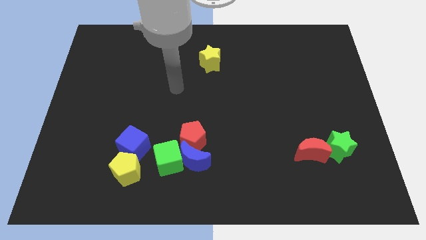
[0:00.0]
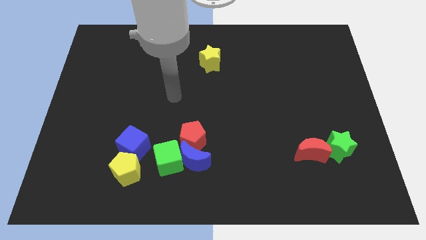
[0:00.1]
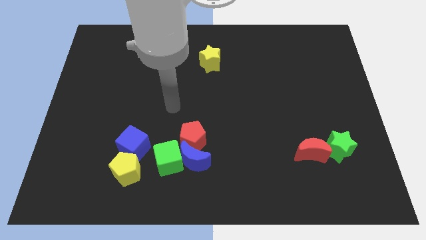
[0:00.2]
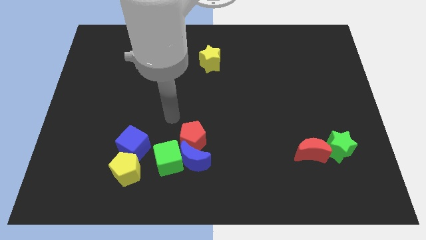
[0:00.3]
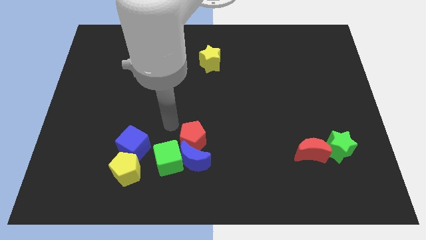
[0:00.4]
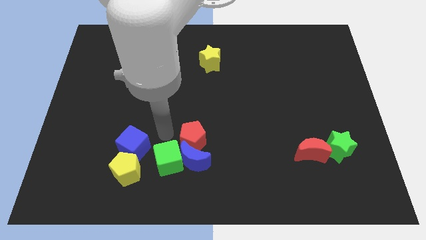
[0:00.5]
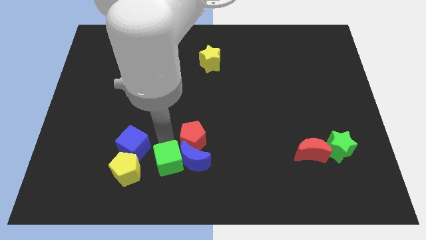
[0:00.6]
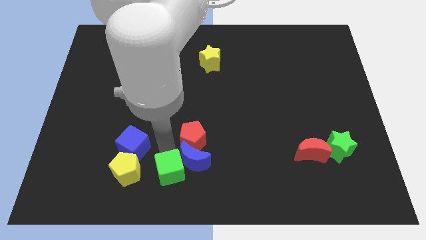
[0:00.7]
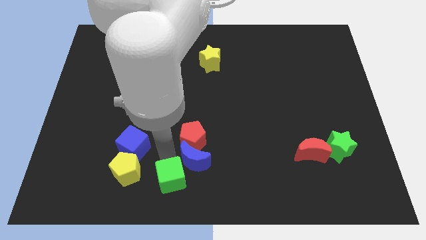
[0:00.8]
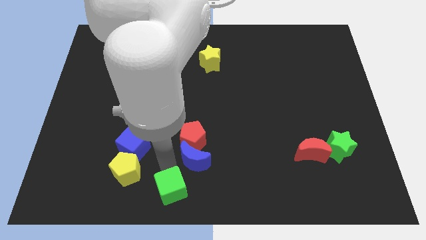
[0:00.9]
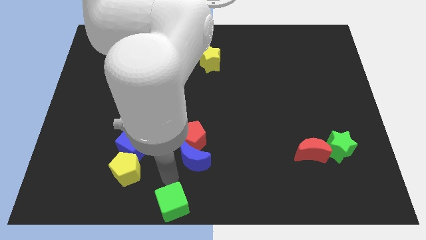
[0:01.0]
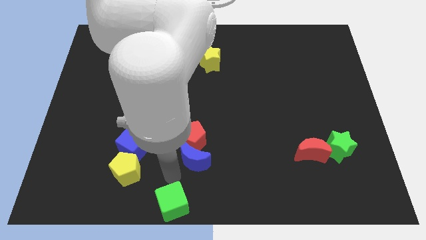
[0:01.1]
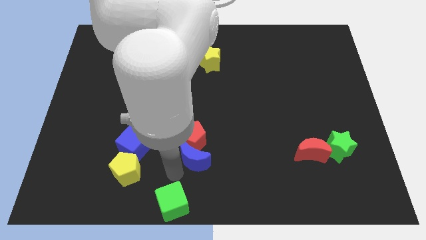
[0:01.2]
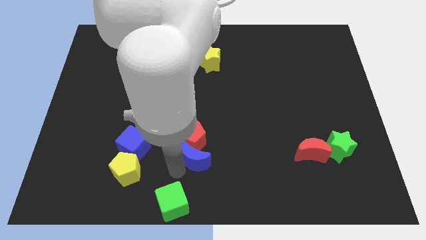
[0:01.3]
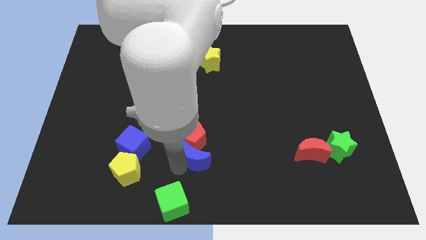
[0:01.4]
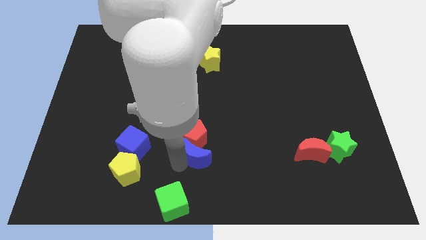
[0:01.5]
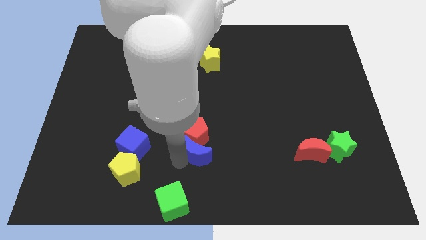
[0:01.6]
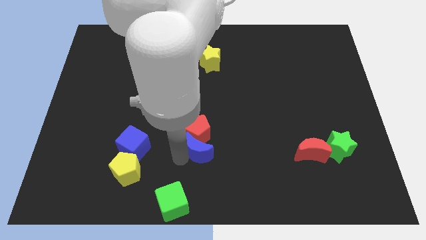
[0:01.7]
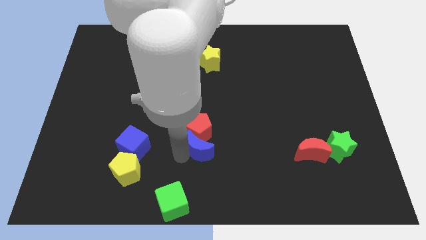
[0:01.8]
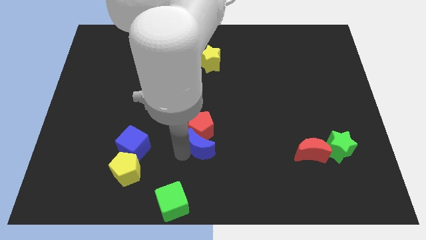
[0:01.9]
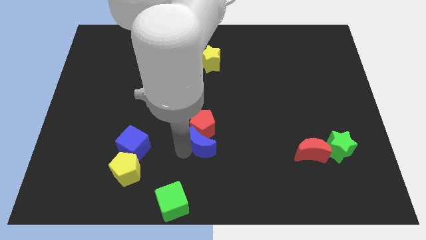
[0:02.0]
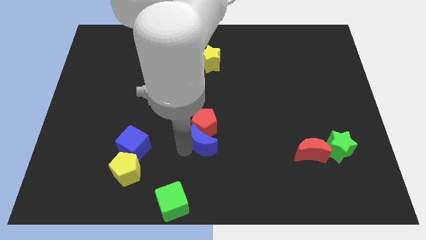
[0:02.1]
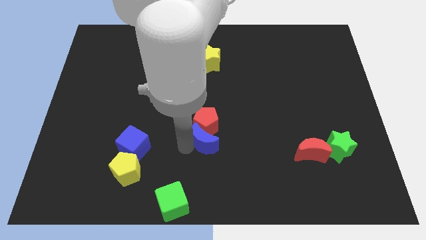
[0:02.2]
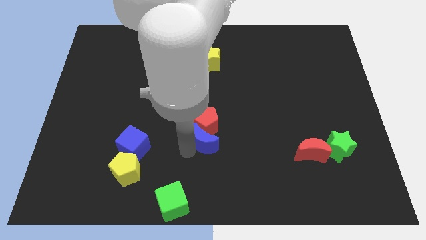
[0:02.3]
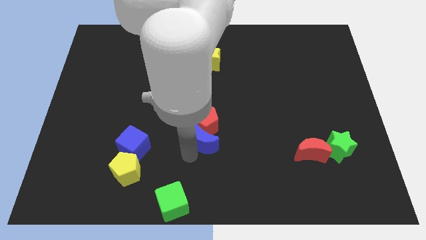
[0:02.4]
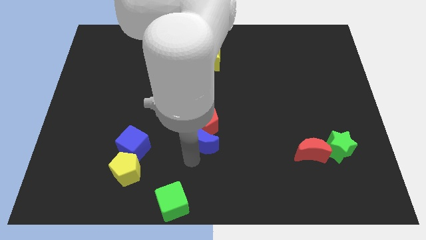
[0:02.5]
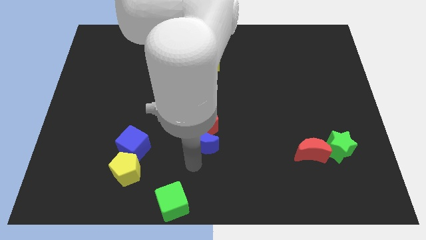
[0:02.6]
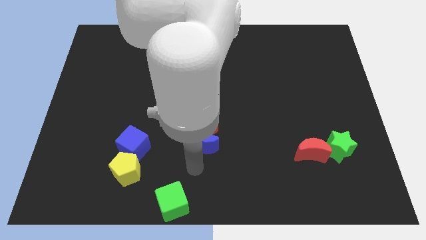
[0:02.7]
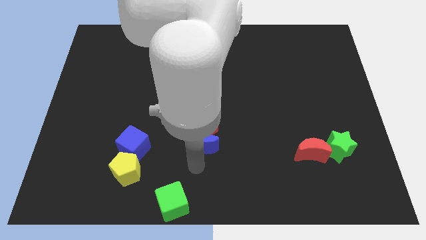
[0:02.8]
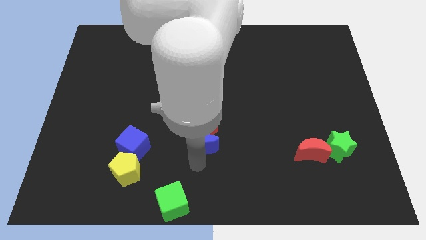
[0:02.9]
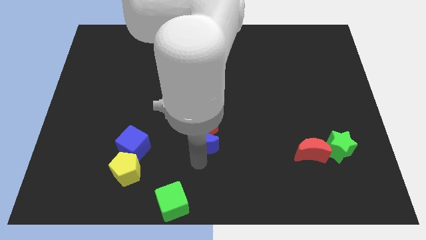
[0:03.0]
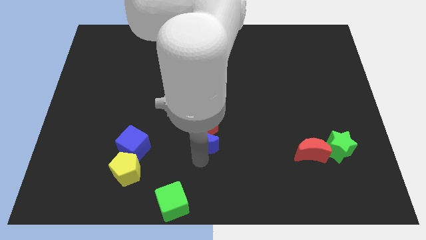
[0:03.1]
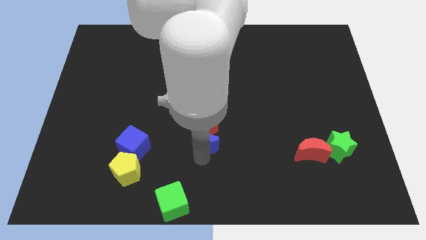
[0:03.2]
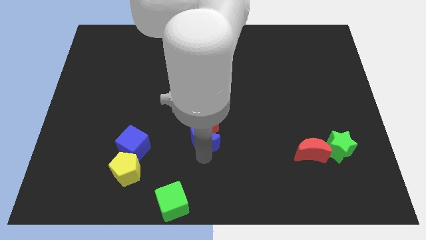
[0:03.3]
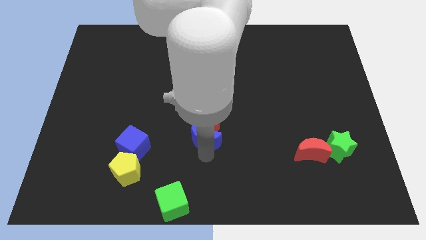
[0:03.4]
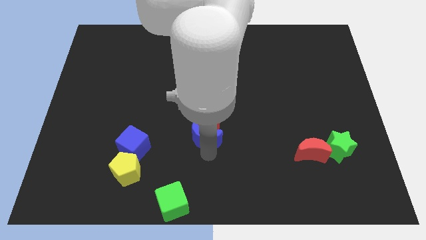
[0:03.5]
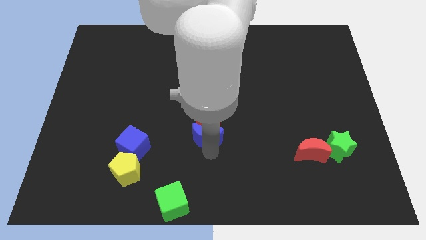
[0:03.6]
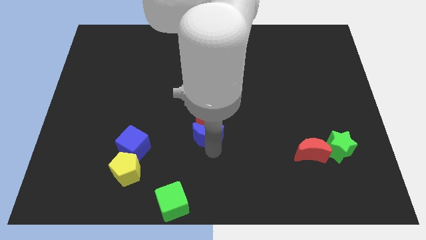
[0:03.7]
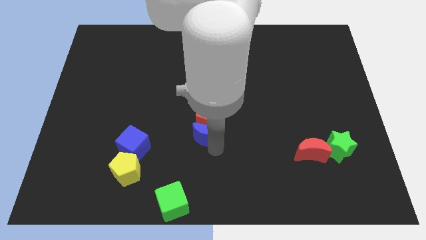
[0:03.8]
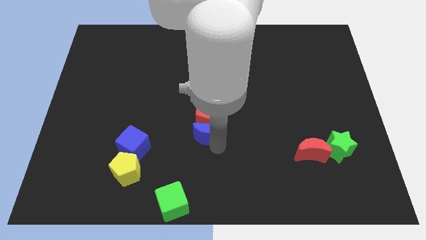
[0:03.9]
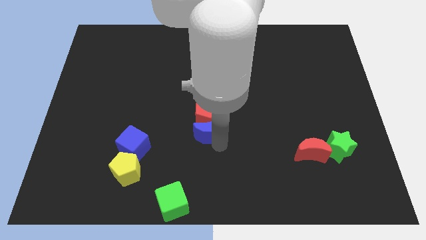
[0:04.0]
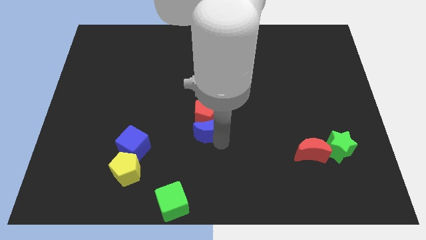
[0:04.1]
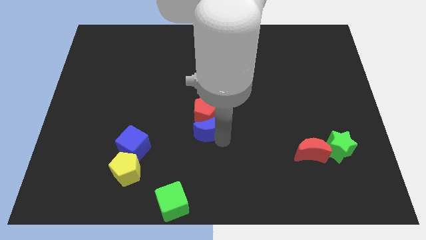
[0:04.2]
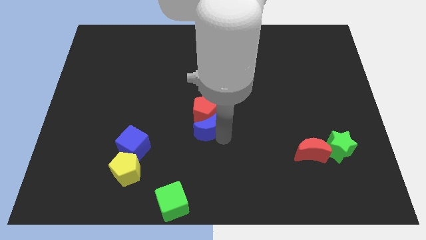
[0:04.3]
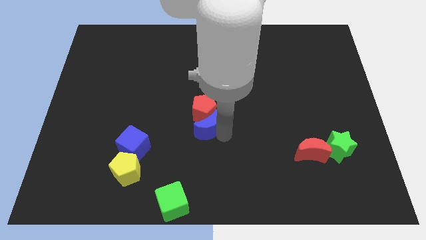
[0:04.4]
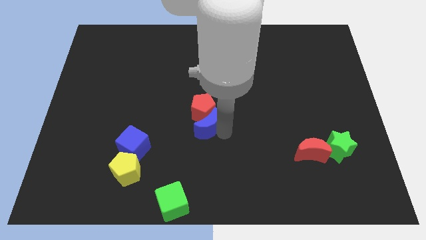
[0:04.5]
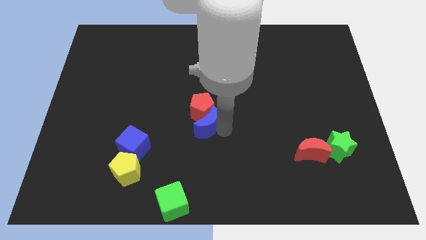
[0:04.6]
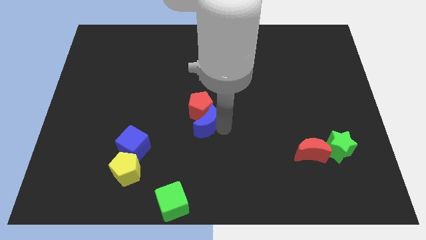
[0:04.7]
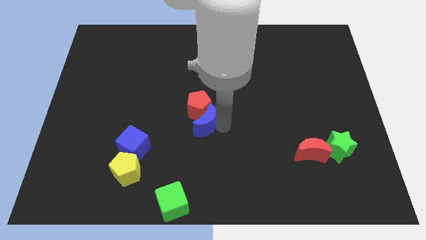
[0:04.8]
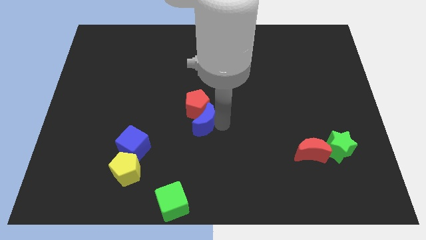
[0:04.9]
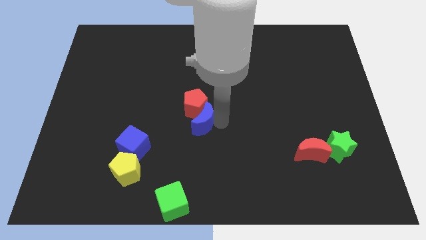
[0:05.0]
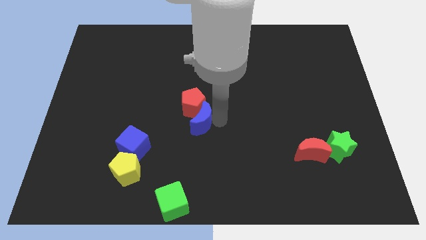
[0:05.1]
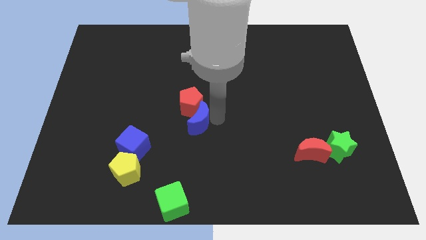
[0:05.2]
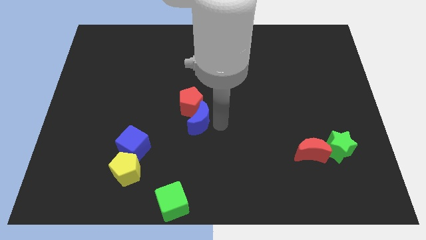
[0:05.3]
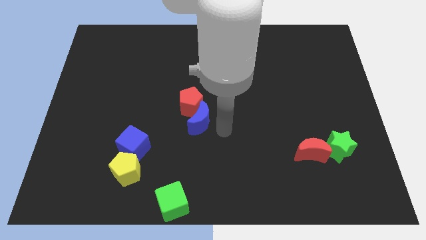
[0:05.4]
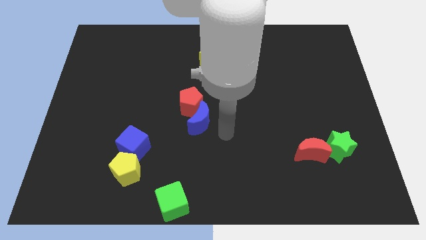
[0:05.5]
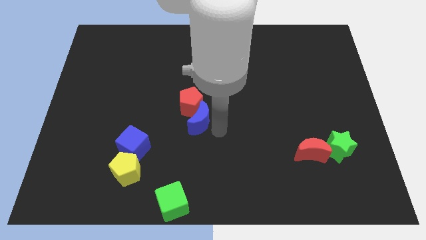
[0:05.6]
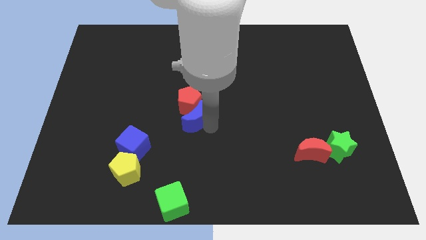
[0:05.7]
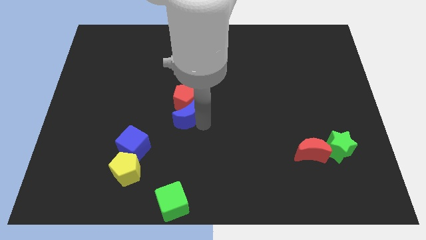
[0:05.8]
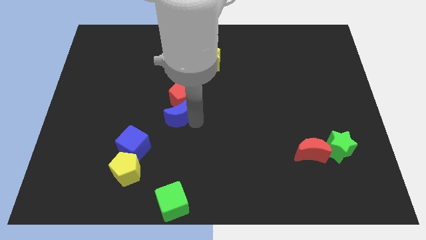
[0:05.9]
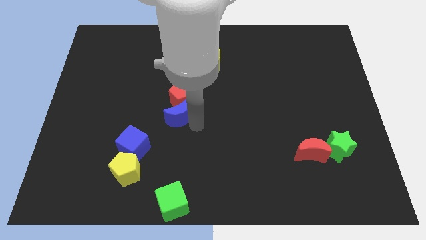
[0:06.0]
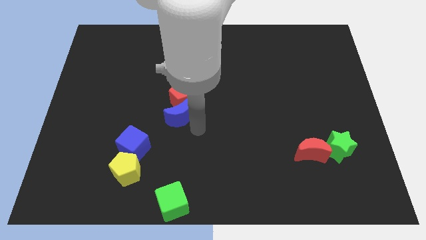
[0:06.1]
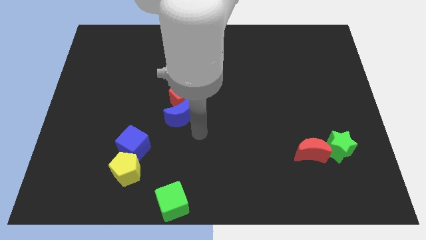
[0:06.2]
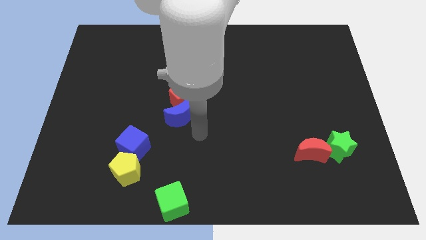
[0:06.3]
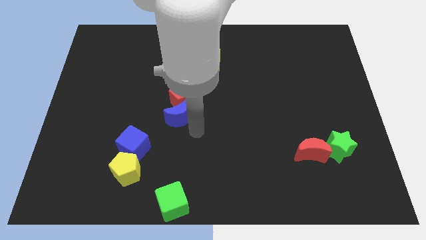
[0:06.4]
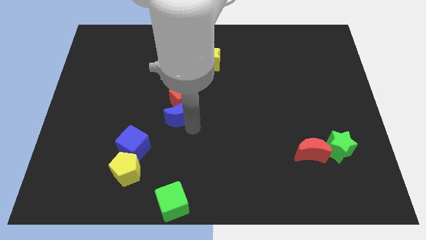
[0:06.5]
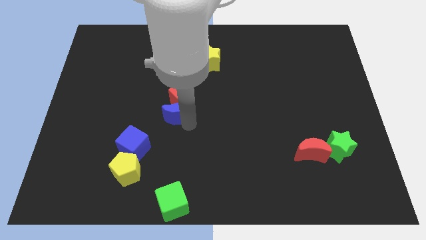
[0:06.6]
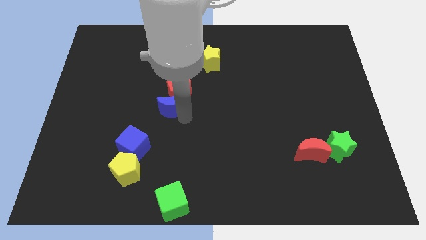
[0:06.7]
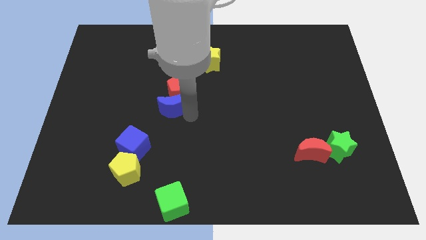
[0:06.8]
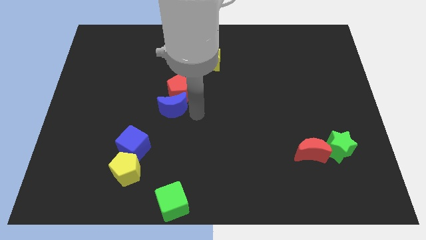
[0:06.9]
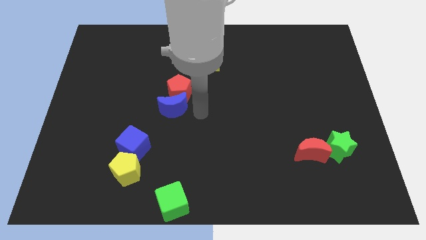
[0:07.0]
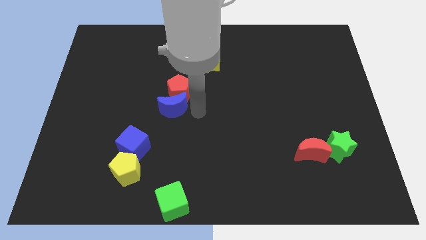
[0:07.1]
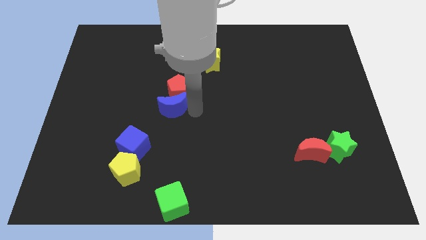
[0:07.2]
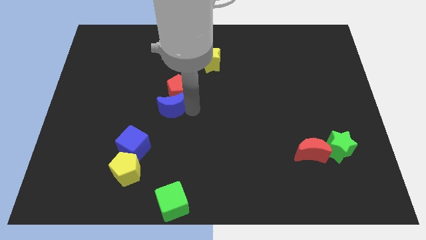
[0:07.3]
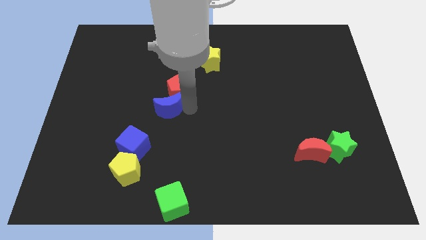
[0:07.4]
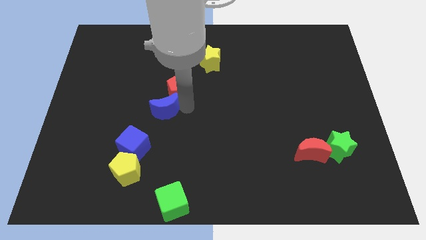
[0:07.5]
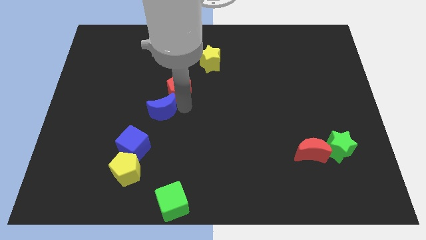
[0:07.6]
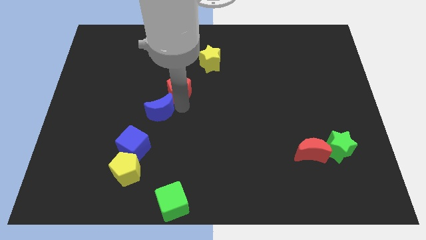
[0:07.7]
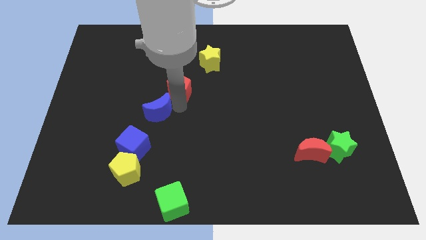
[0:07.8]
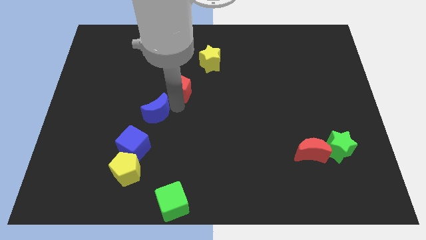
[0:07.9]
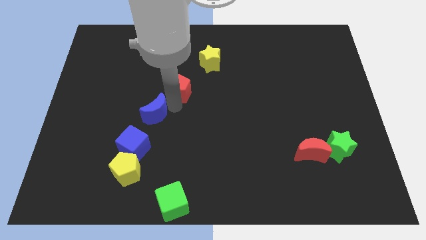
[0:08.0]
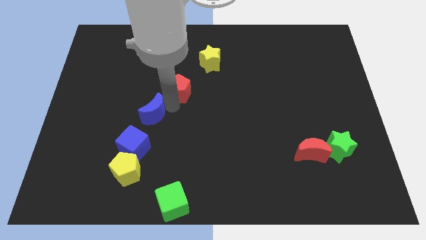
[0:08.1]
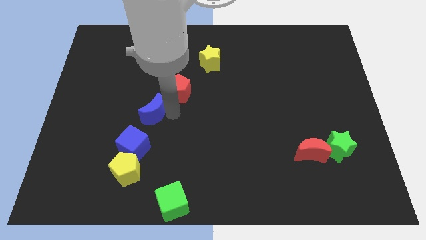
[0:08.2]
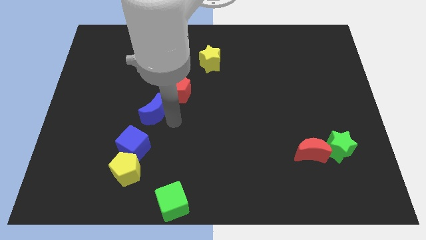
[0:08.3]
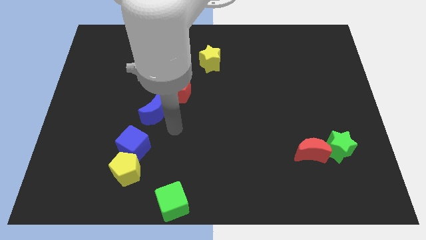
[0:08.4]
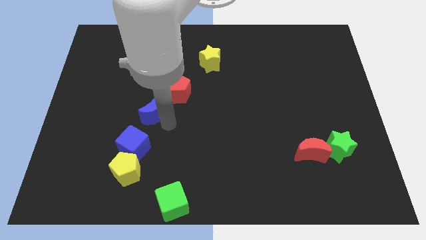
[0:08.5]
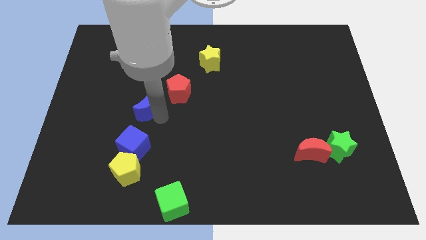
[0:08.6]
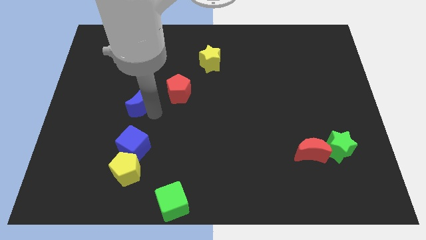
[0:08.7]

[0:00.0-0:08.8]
push the blue moon diagonally upwards and to the left
